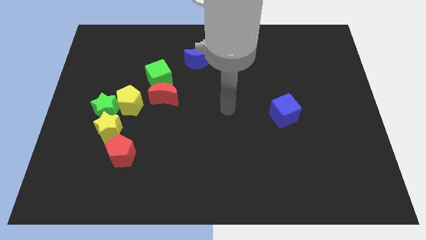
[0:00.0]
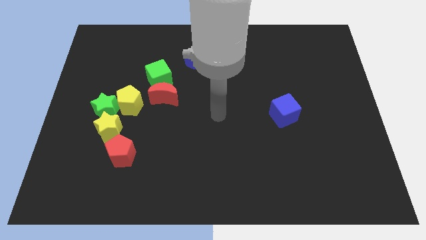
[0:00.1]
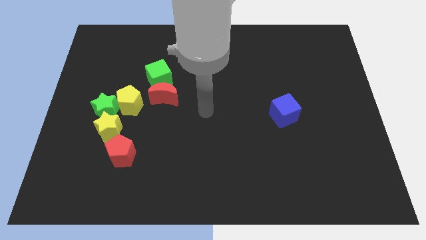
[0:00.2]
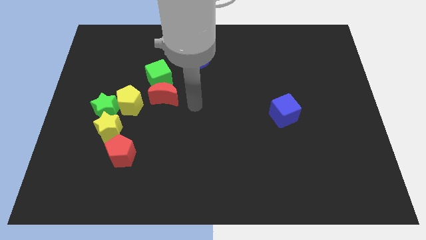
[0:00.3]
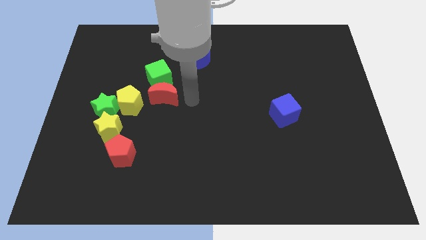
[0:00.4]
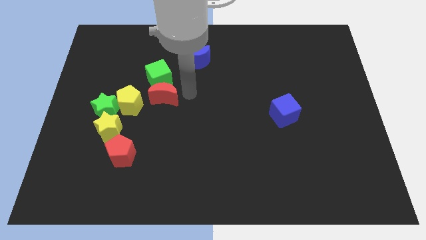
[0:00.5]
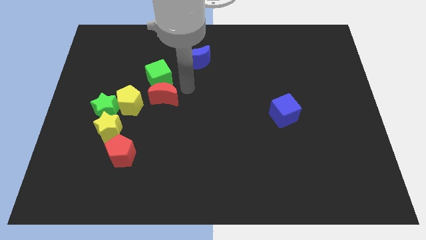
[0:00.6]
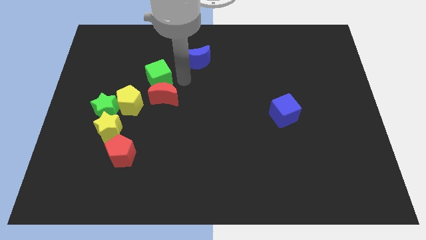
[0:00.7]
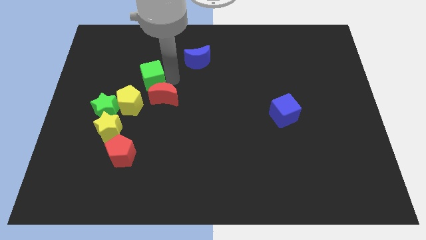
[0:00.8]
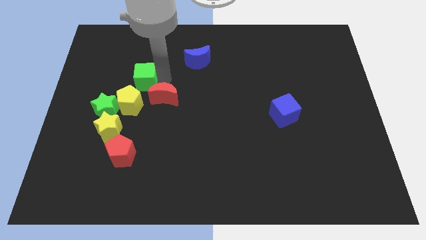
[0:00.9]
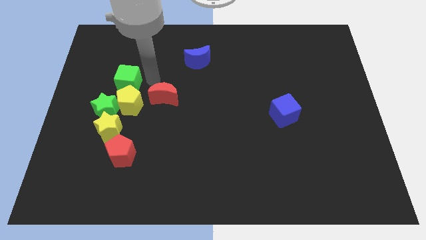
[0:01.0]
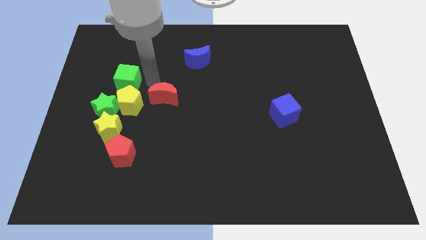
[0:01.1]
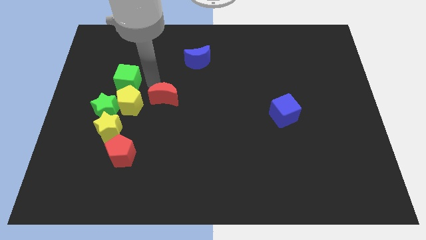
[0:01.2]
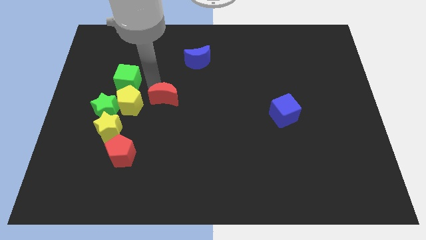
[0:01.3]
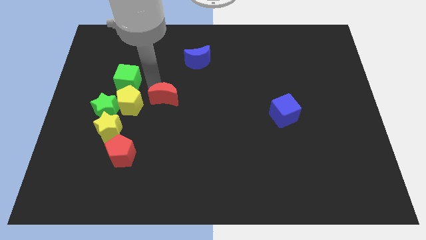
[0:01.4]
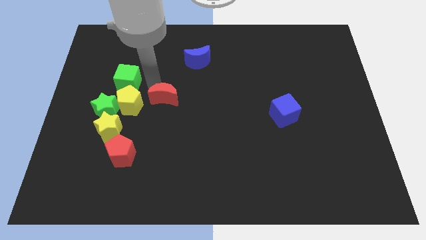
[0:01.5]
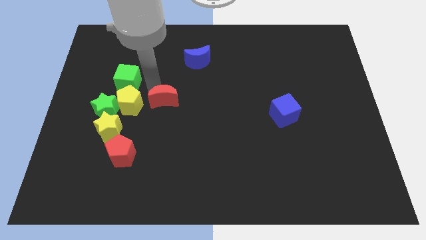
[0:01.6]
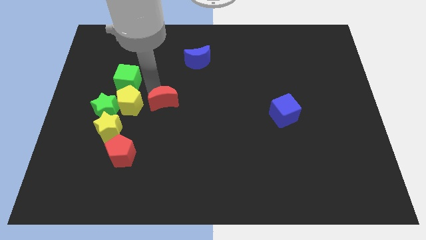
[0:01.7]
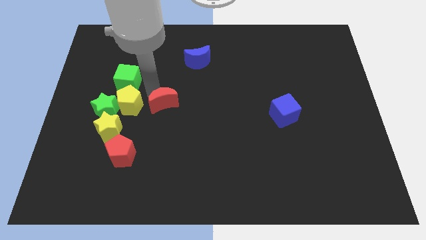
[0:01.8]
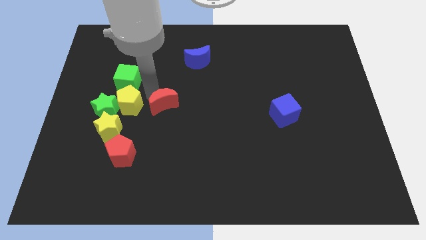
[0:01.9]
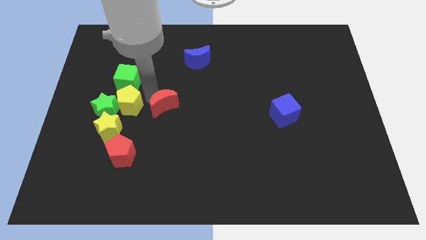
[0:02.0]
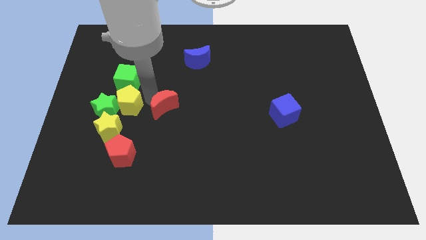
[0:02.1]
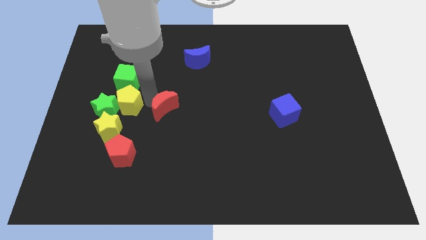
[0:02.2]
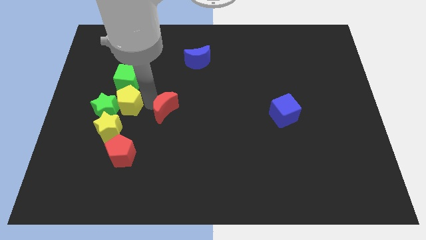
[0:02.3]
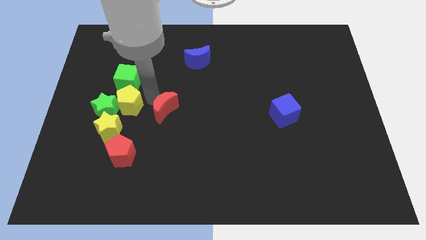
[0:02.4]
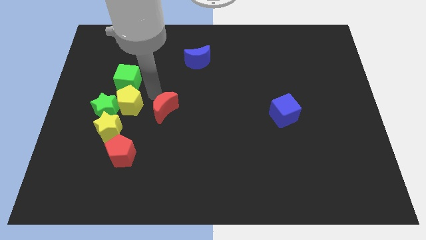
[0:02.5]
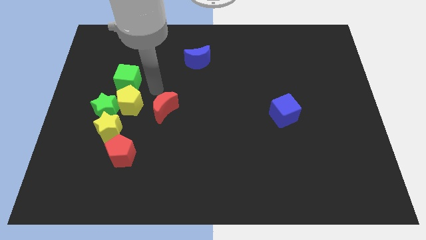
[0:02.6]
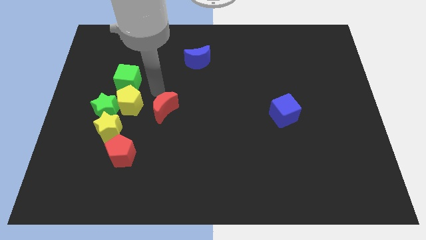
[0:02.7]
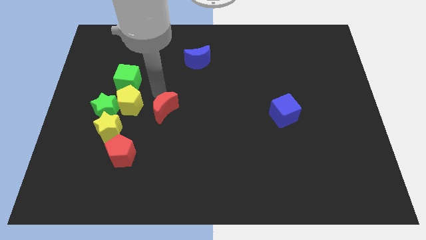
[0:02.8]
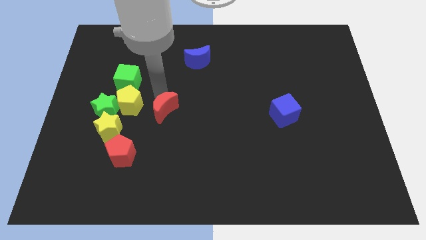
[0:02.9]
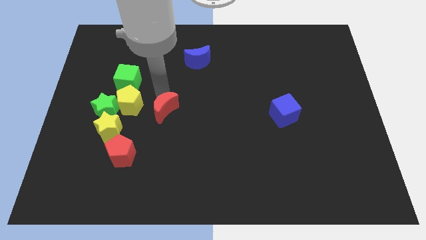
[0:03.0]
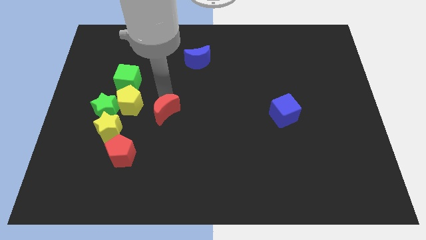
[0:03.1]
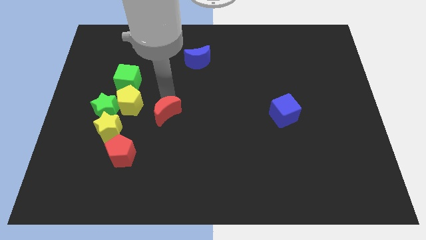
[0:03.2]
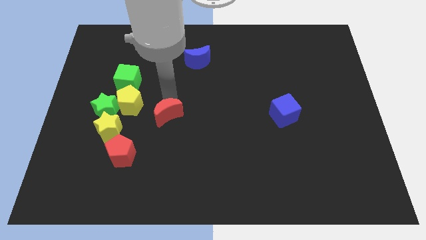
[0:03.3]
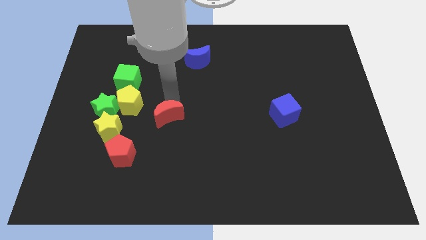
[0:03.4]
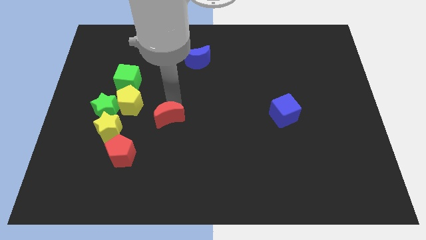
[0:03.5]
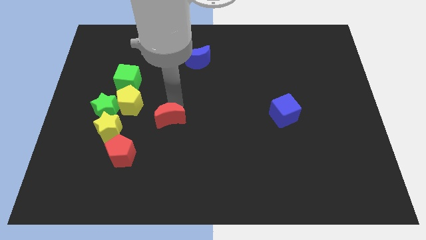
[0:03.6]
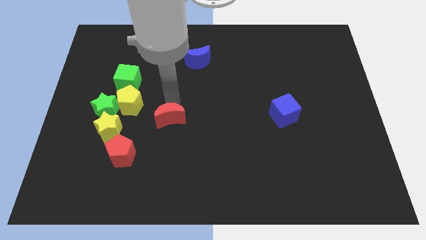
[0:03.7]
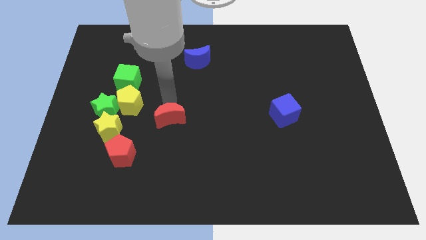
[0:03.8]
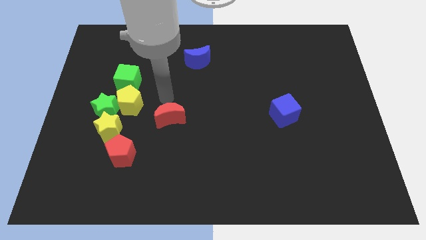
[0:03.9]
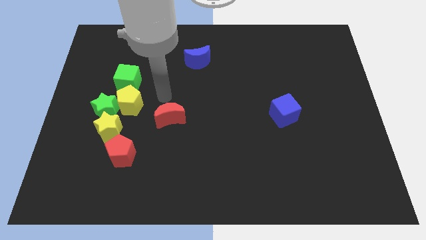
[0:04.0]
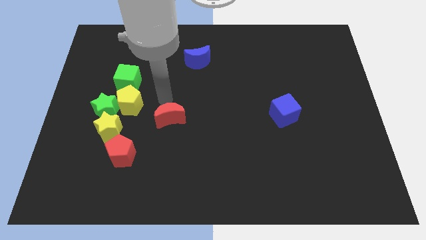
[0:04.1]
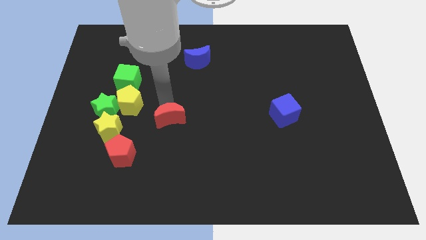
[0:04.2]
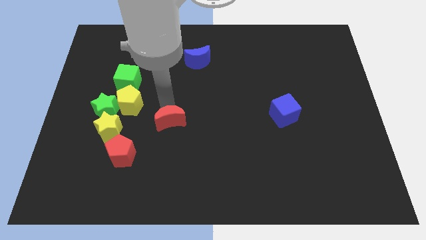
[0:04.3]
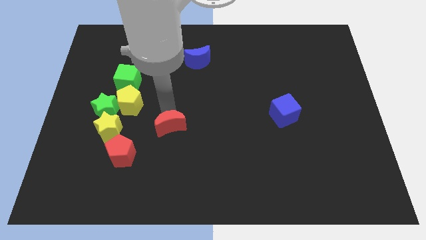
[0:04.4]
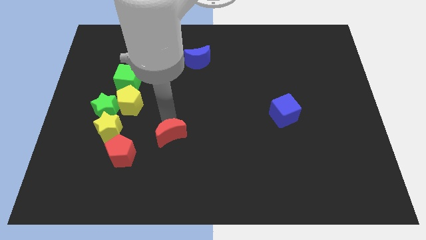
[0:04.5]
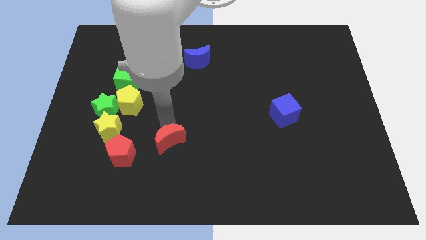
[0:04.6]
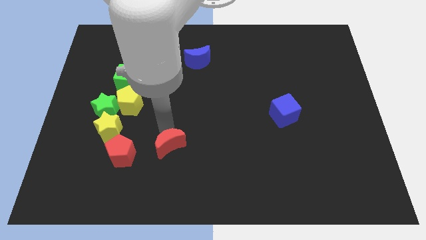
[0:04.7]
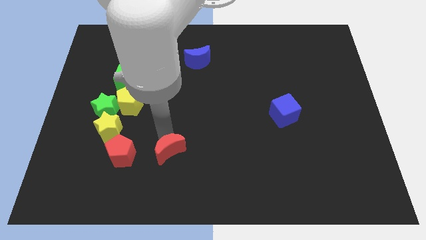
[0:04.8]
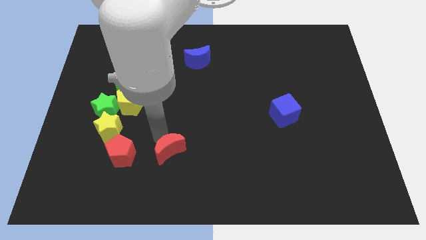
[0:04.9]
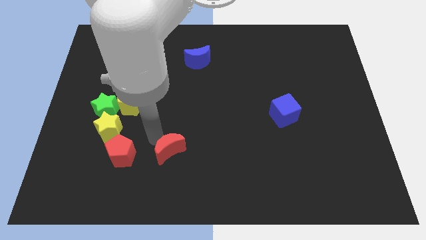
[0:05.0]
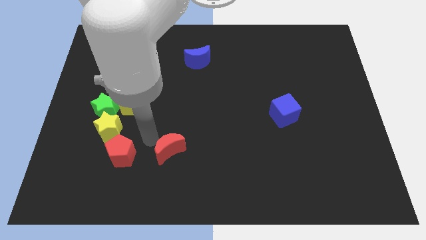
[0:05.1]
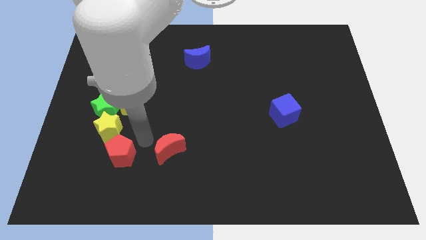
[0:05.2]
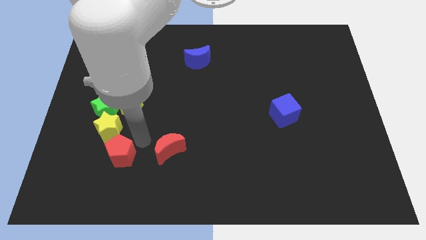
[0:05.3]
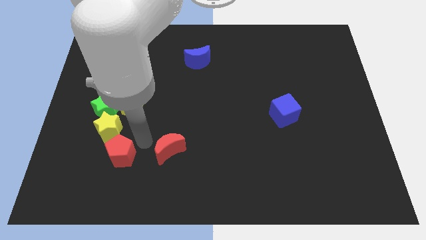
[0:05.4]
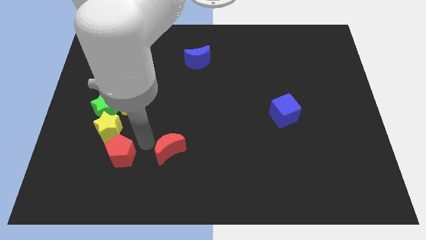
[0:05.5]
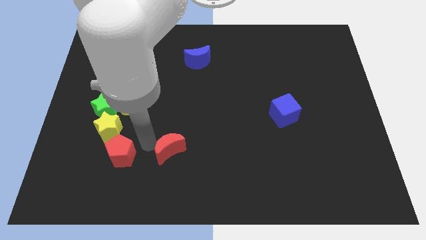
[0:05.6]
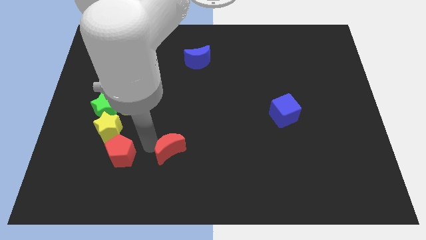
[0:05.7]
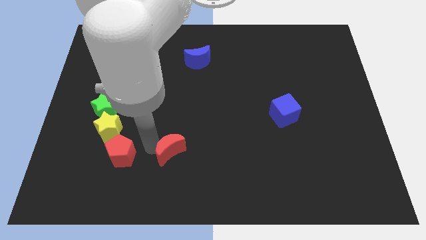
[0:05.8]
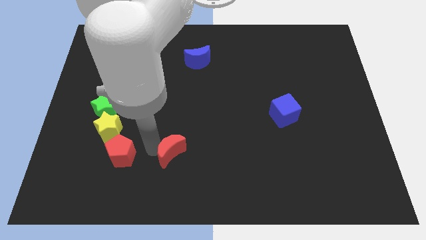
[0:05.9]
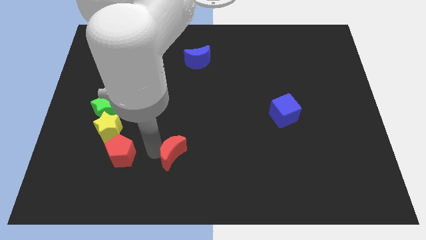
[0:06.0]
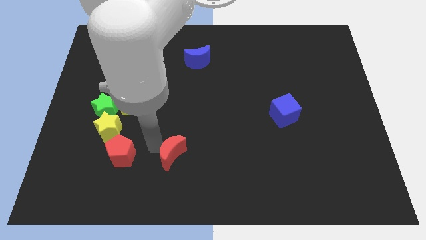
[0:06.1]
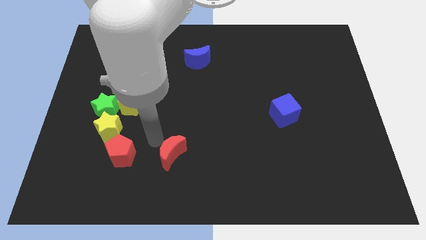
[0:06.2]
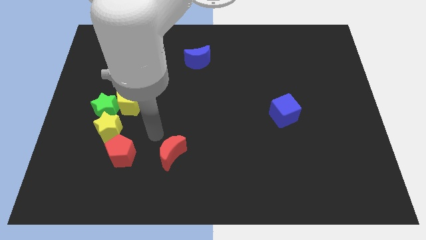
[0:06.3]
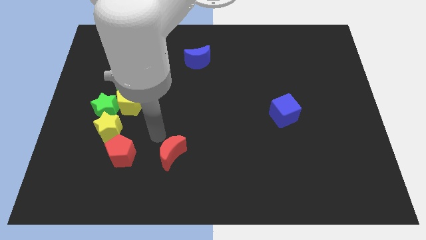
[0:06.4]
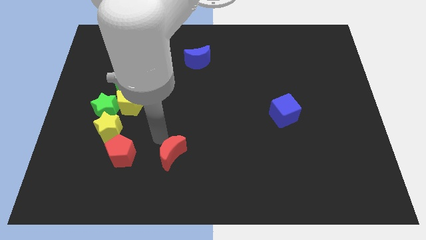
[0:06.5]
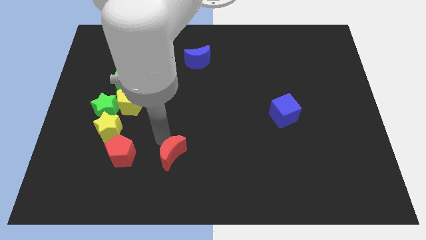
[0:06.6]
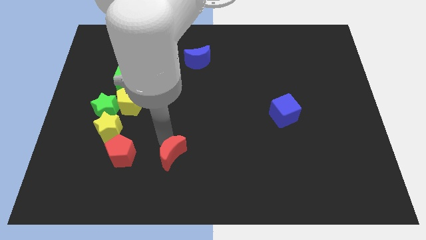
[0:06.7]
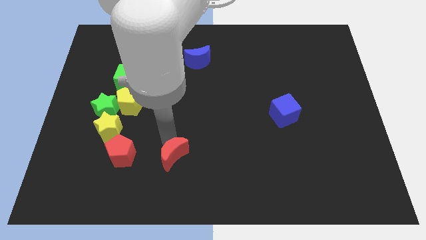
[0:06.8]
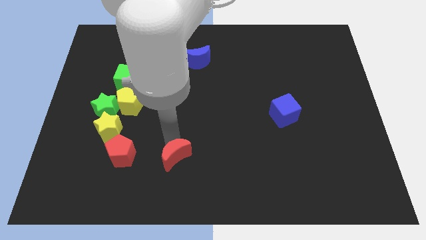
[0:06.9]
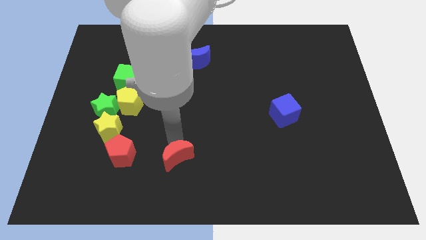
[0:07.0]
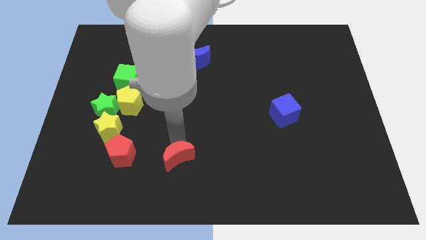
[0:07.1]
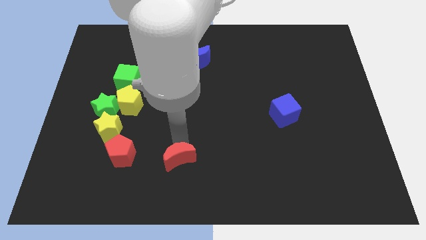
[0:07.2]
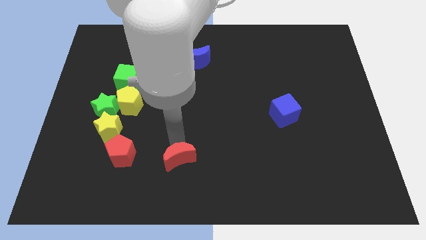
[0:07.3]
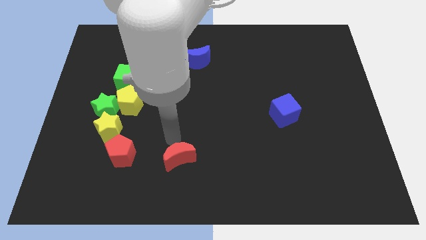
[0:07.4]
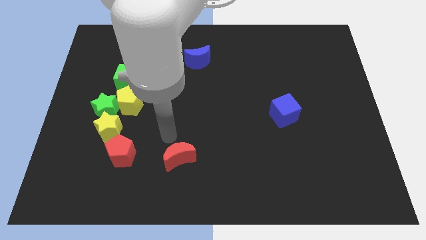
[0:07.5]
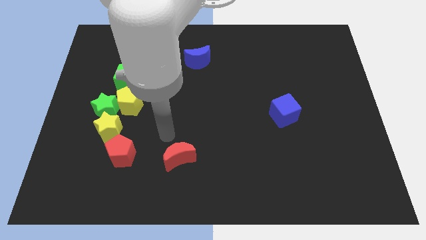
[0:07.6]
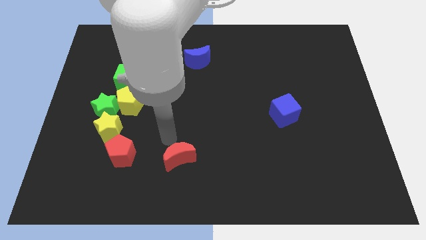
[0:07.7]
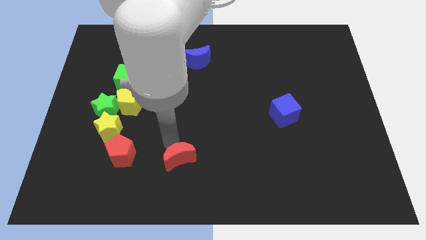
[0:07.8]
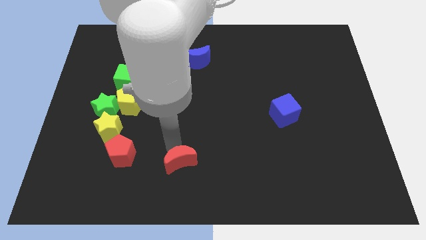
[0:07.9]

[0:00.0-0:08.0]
move the red moon to the bottom side
